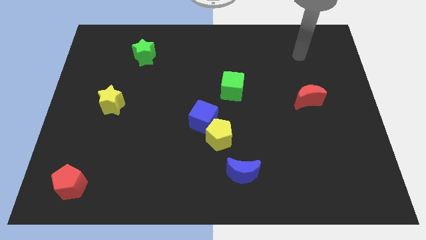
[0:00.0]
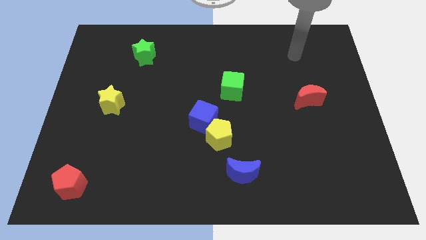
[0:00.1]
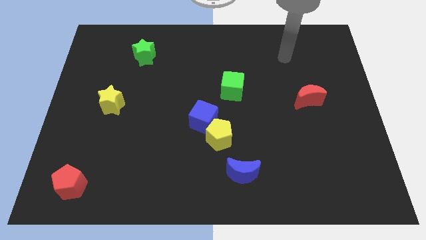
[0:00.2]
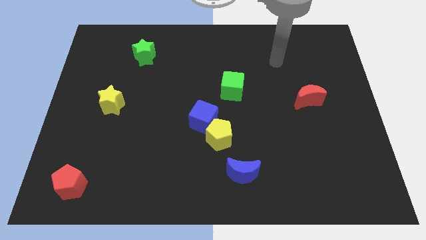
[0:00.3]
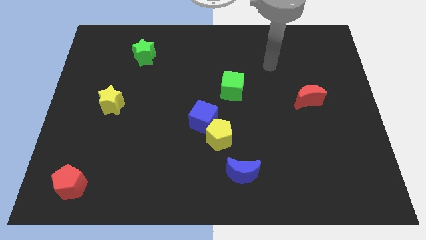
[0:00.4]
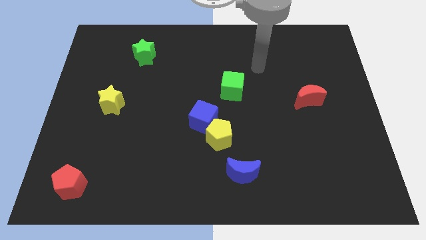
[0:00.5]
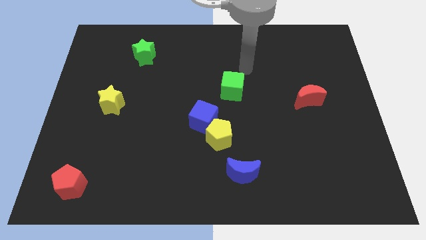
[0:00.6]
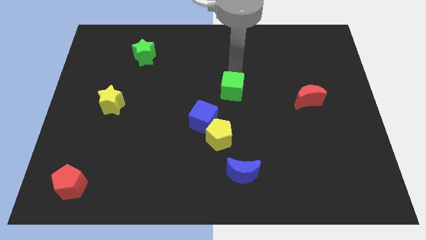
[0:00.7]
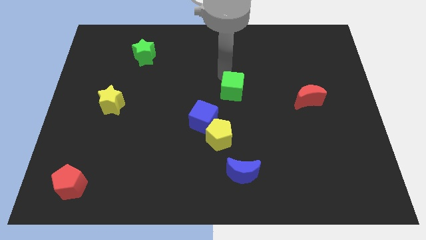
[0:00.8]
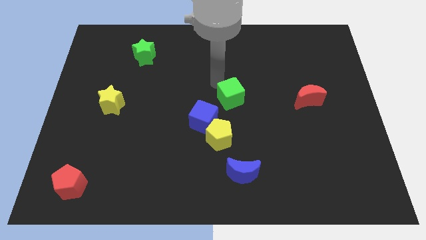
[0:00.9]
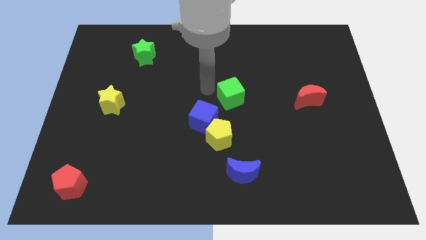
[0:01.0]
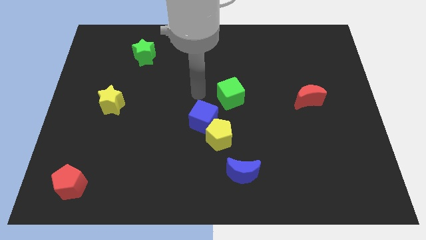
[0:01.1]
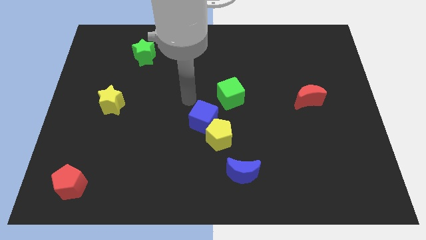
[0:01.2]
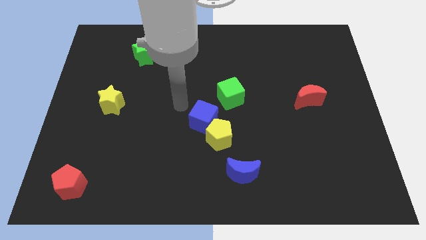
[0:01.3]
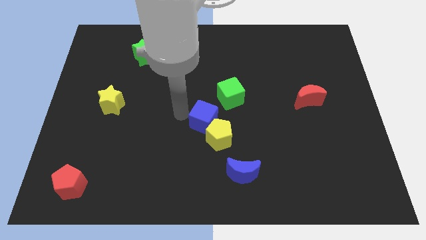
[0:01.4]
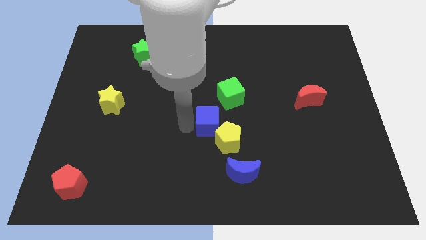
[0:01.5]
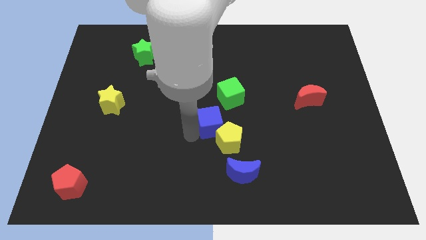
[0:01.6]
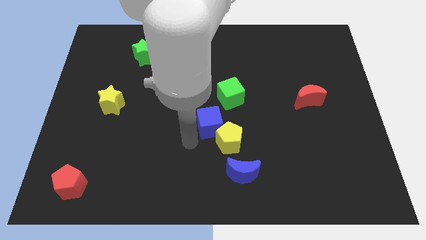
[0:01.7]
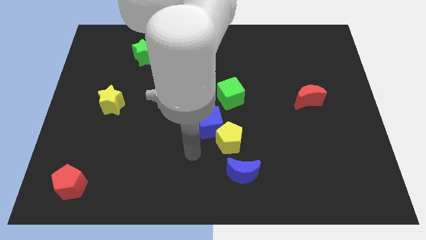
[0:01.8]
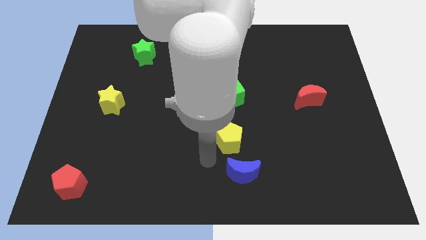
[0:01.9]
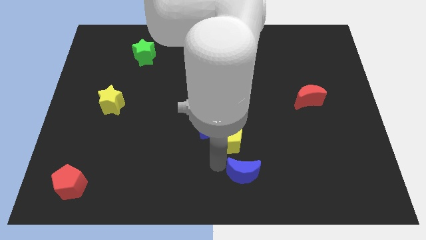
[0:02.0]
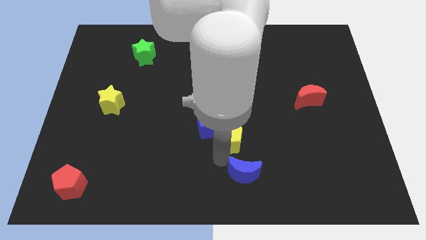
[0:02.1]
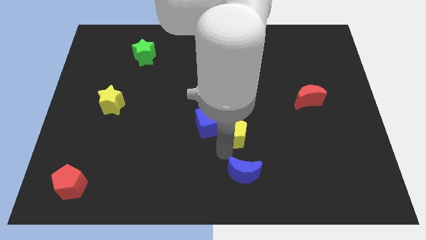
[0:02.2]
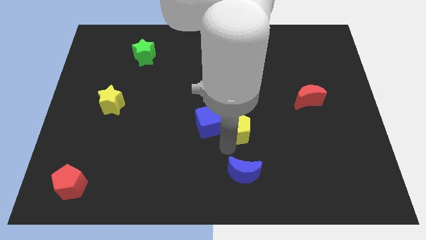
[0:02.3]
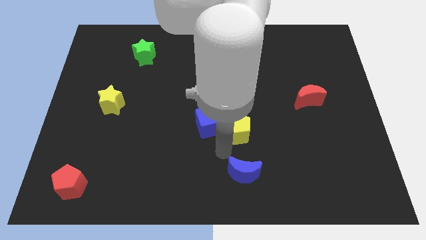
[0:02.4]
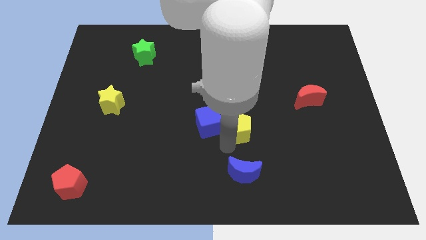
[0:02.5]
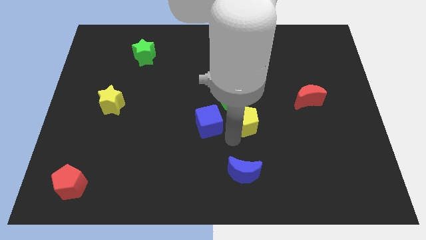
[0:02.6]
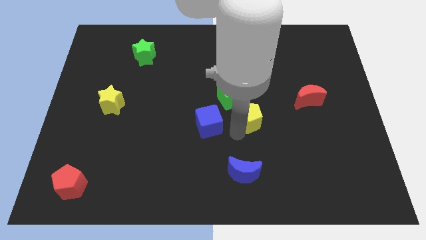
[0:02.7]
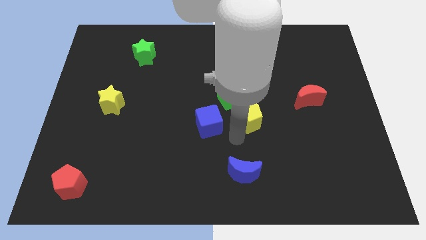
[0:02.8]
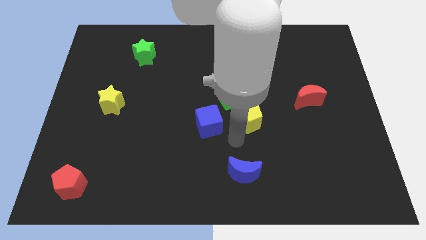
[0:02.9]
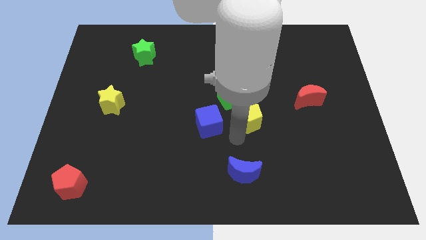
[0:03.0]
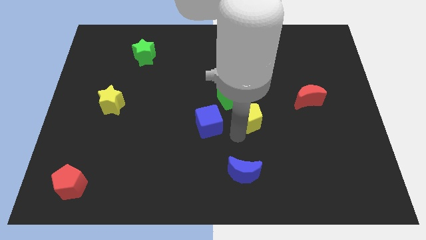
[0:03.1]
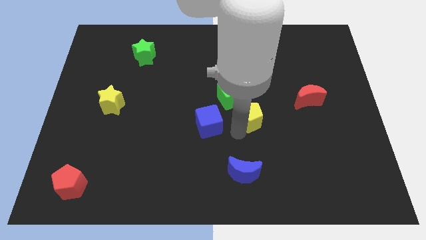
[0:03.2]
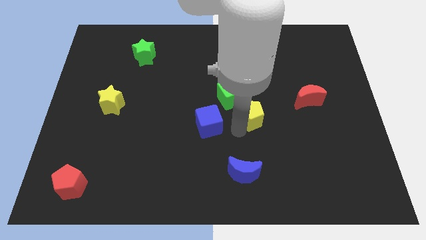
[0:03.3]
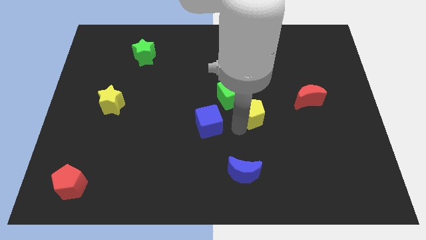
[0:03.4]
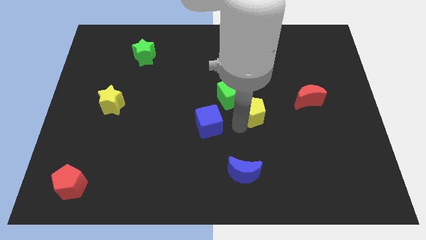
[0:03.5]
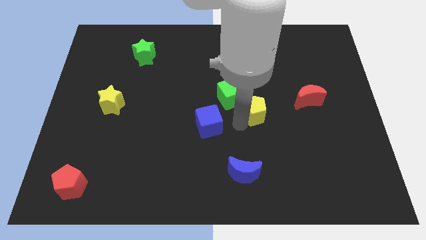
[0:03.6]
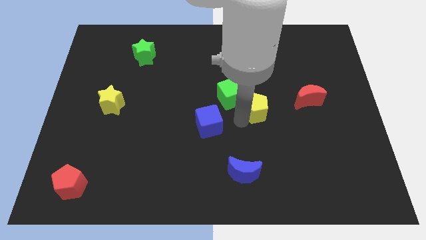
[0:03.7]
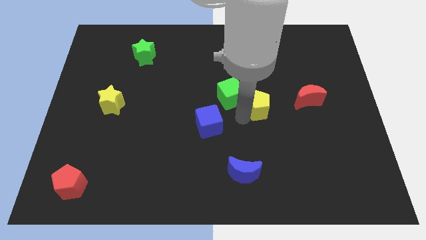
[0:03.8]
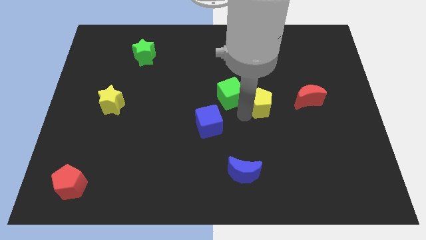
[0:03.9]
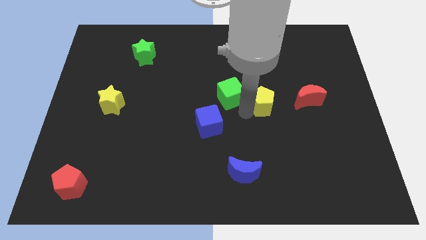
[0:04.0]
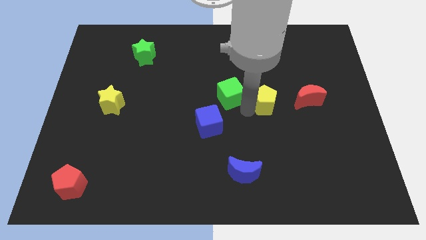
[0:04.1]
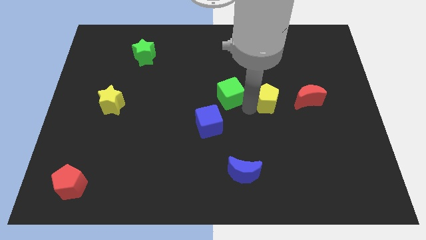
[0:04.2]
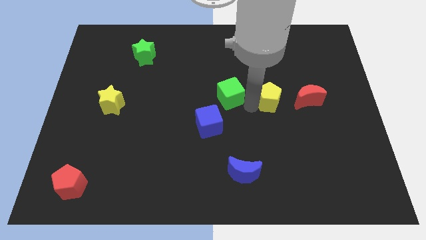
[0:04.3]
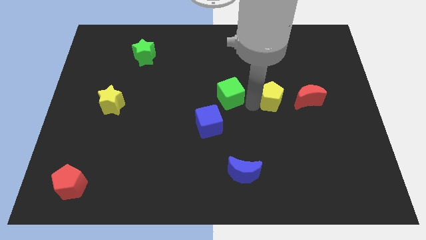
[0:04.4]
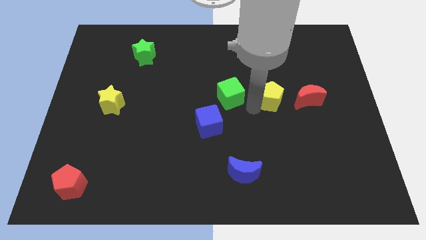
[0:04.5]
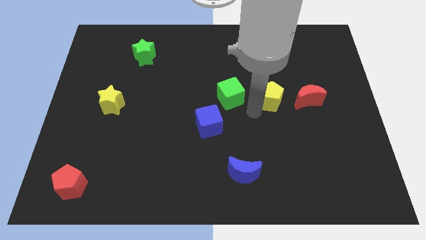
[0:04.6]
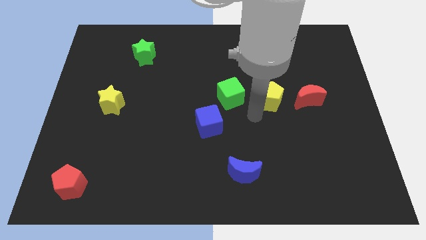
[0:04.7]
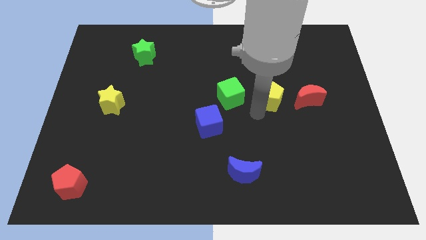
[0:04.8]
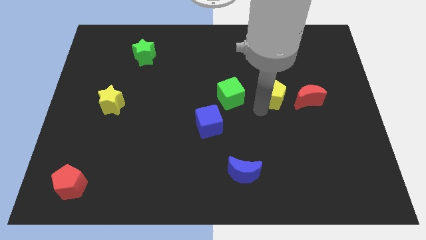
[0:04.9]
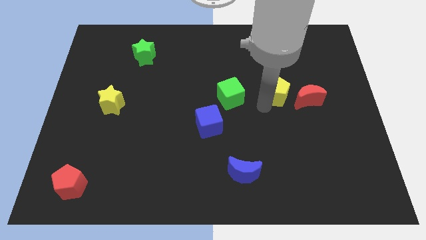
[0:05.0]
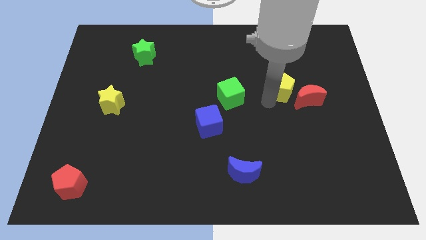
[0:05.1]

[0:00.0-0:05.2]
slide the yellow pentagon diagonally up and right

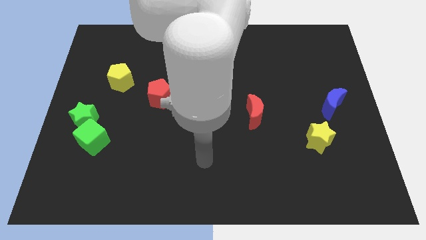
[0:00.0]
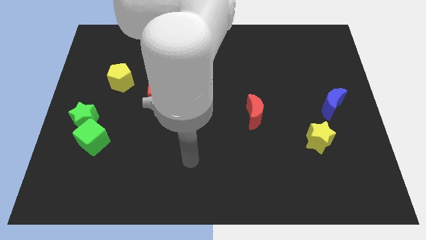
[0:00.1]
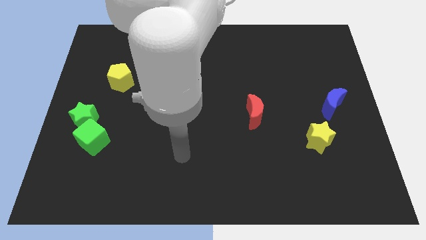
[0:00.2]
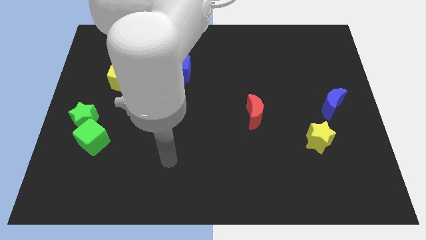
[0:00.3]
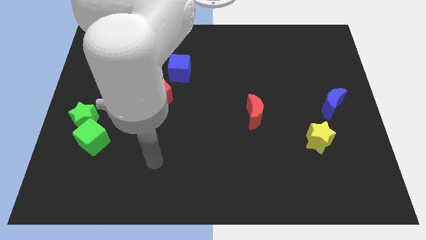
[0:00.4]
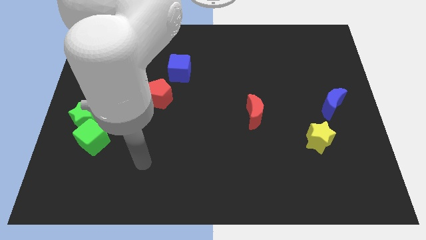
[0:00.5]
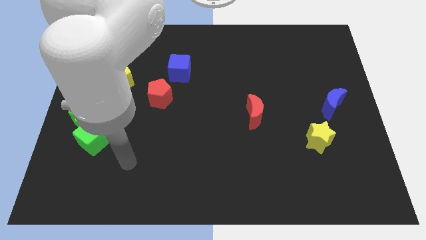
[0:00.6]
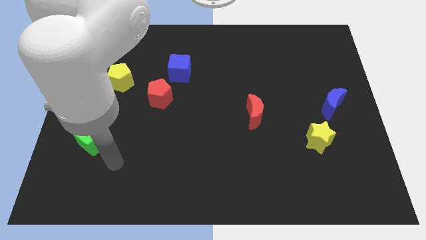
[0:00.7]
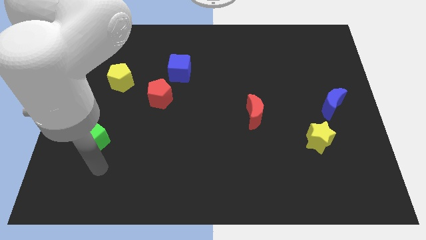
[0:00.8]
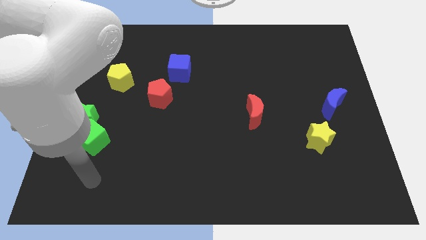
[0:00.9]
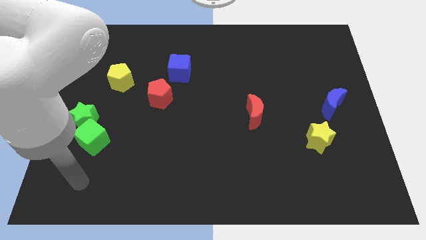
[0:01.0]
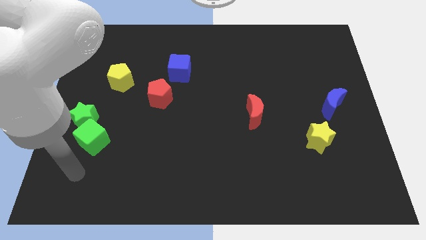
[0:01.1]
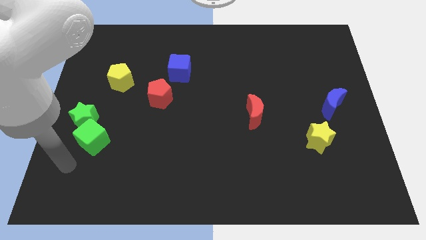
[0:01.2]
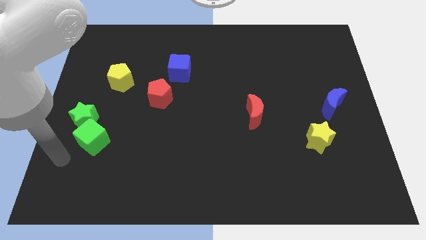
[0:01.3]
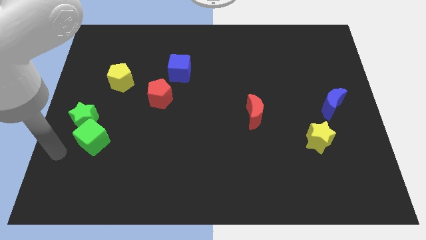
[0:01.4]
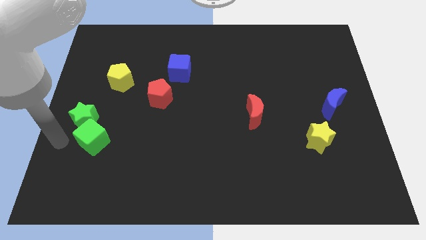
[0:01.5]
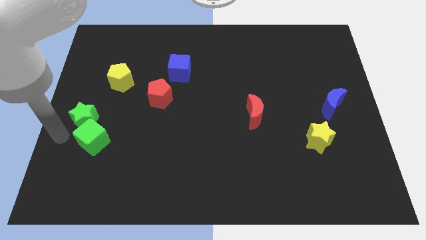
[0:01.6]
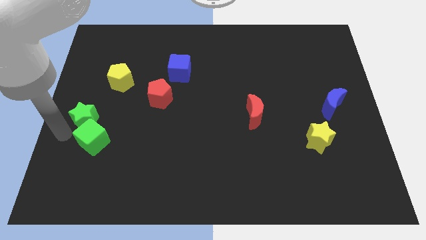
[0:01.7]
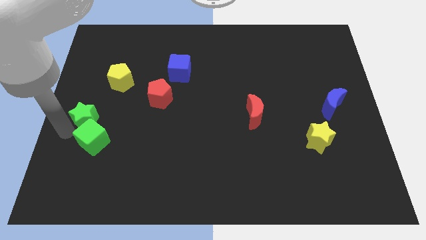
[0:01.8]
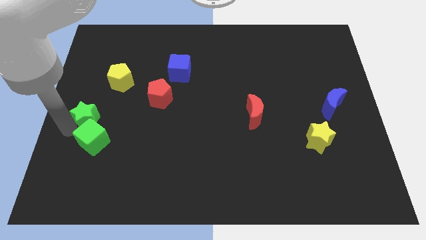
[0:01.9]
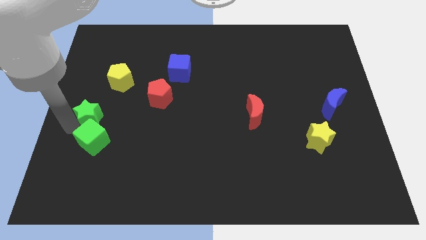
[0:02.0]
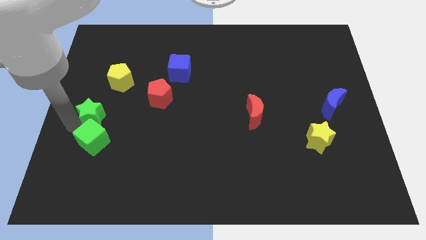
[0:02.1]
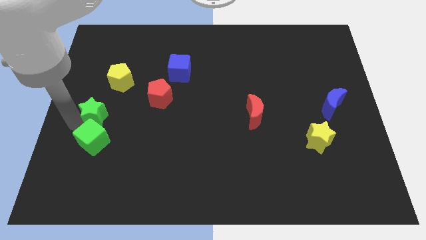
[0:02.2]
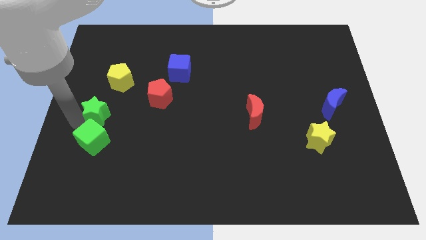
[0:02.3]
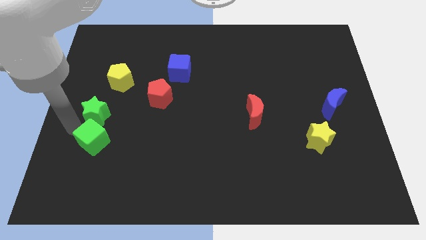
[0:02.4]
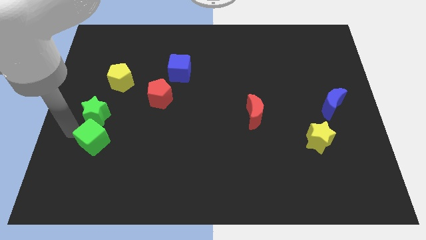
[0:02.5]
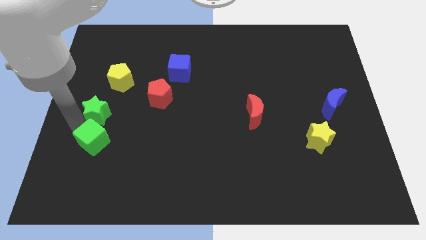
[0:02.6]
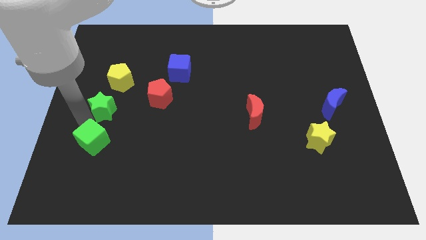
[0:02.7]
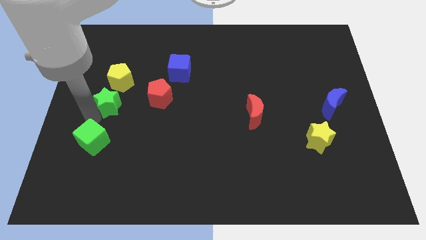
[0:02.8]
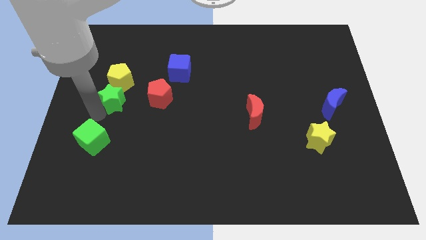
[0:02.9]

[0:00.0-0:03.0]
slightly slide the green star up and to the right diagonally
